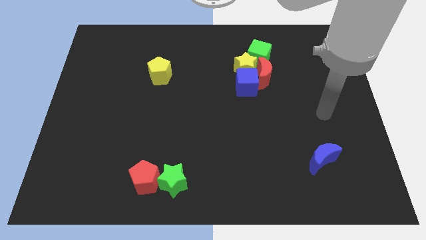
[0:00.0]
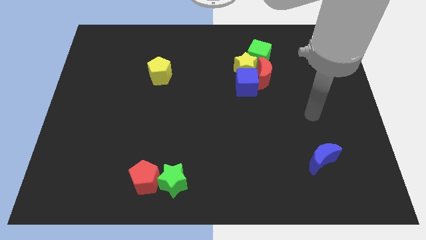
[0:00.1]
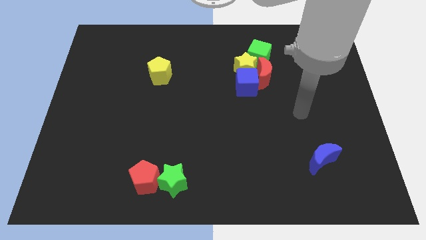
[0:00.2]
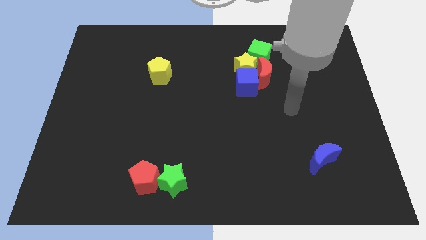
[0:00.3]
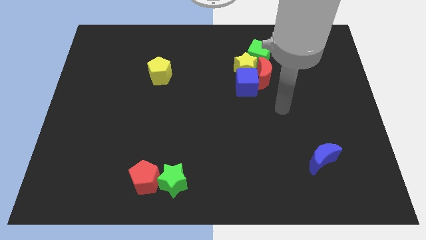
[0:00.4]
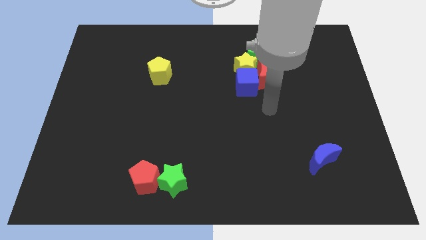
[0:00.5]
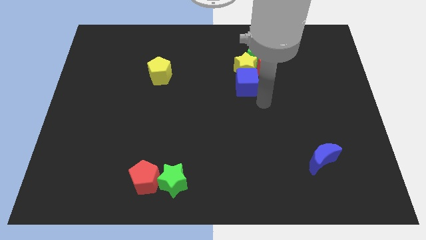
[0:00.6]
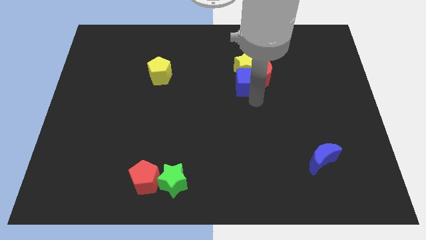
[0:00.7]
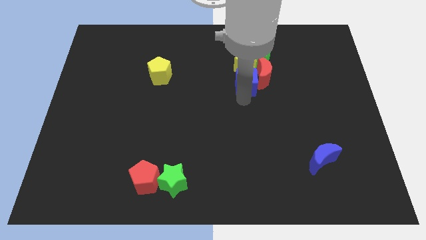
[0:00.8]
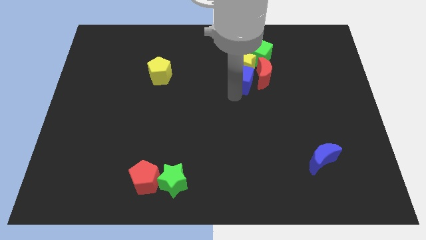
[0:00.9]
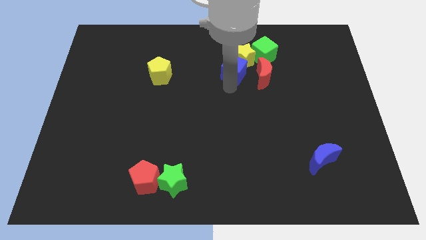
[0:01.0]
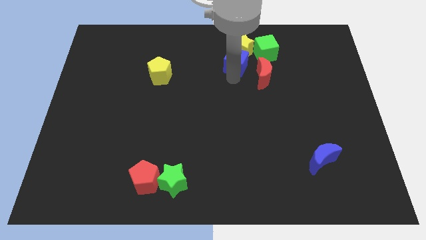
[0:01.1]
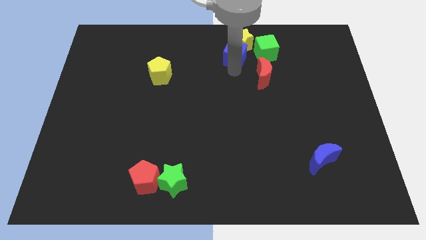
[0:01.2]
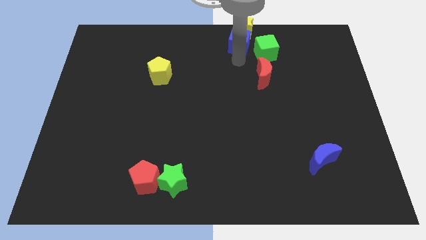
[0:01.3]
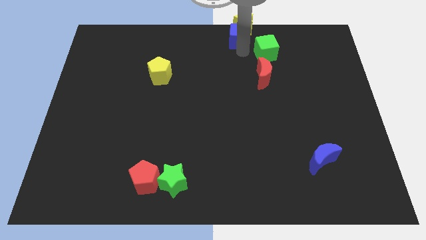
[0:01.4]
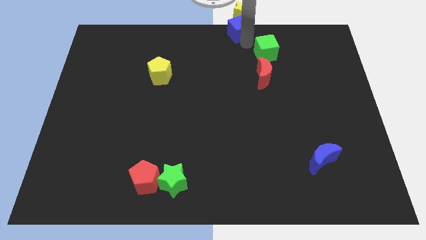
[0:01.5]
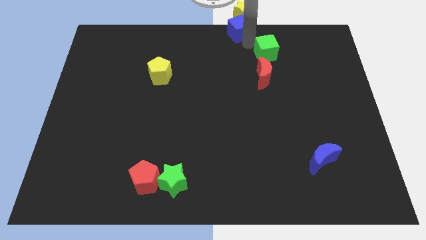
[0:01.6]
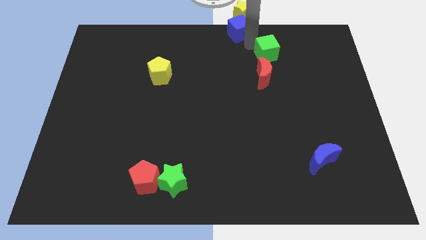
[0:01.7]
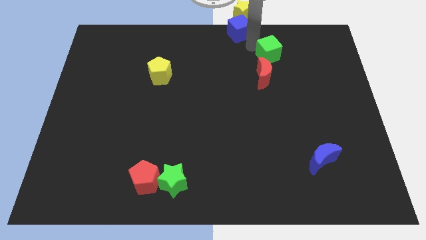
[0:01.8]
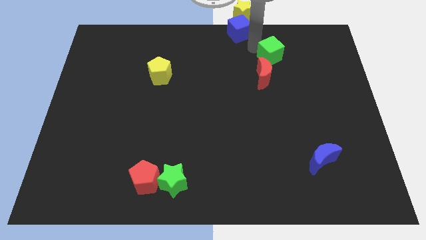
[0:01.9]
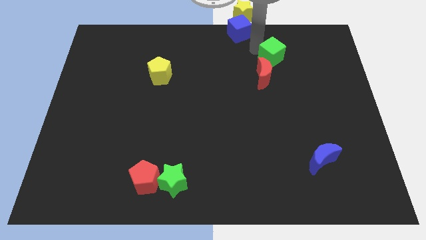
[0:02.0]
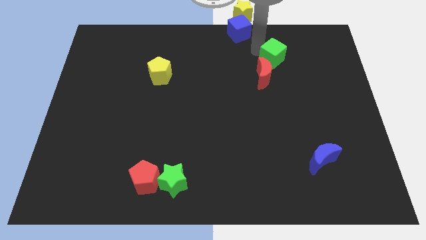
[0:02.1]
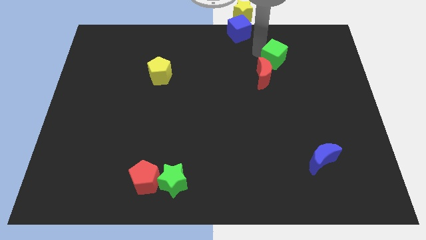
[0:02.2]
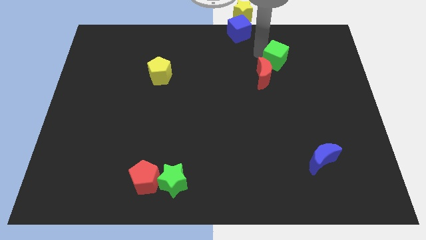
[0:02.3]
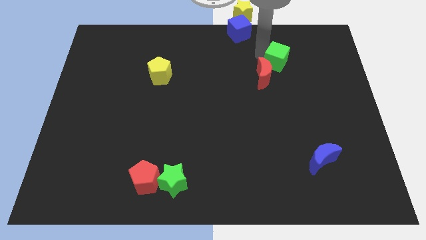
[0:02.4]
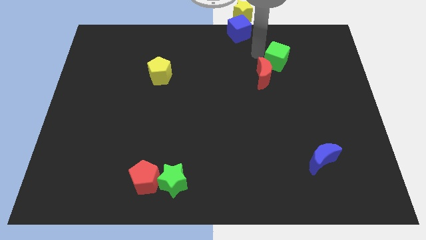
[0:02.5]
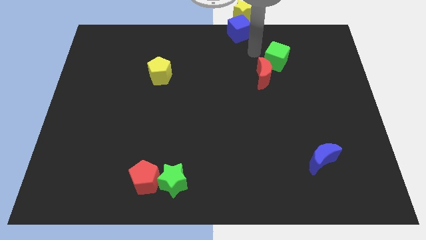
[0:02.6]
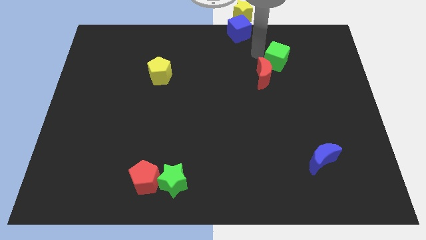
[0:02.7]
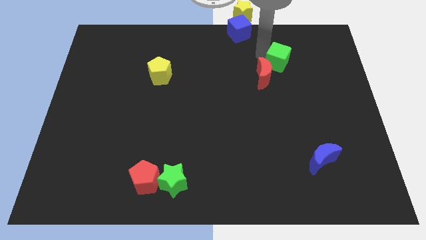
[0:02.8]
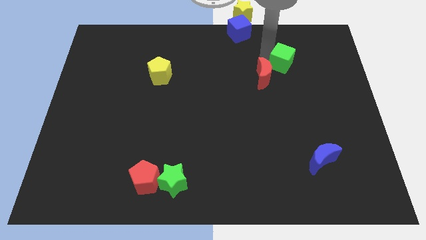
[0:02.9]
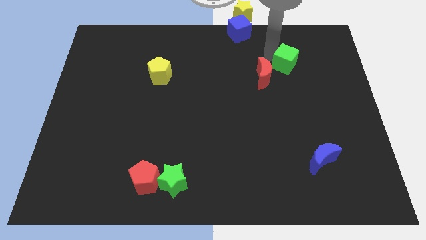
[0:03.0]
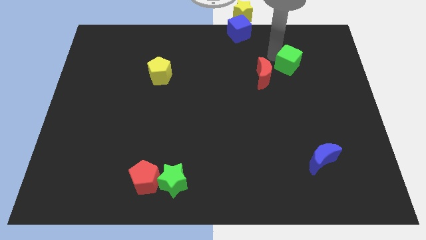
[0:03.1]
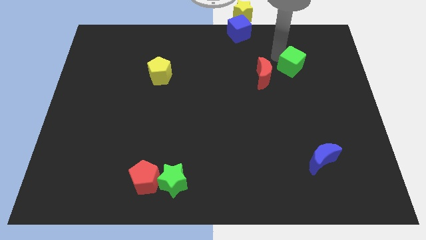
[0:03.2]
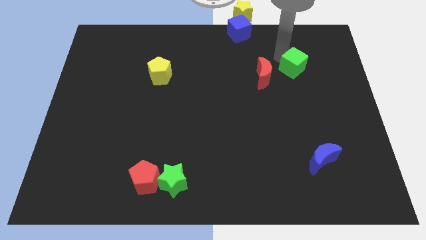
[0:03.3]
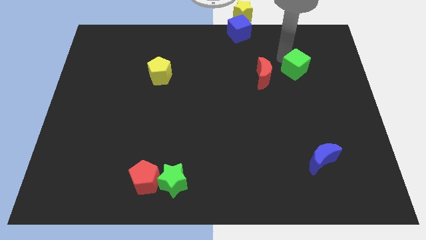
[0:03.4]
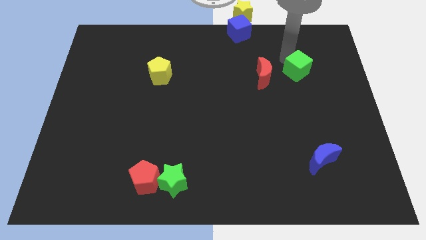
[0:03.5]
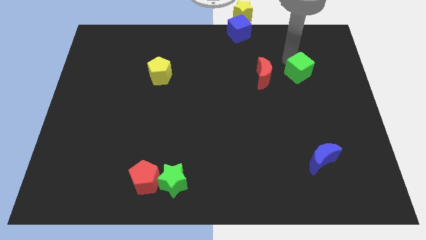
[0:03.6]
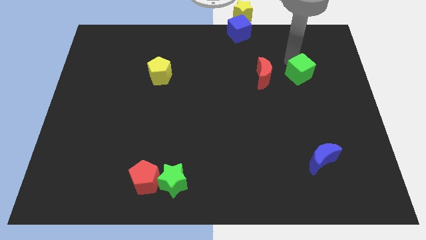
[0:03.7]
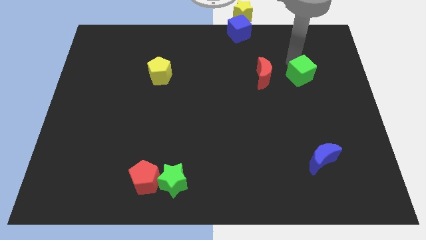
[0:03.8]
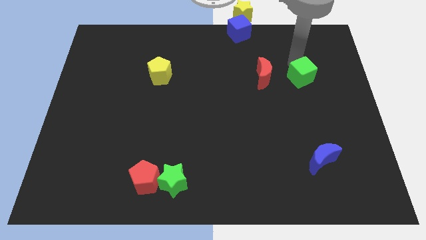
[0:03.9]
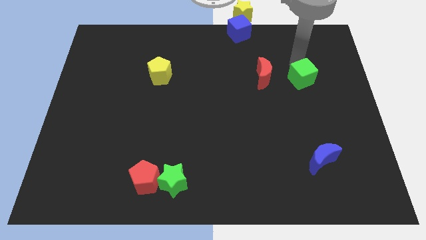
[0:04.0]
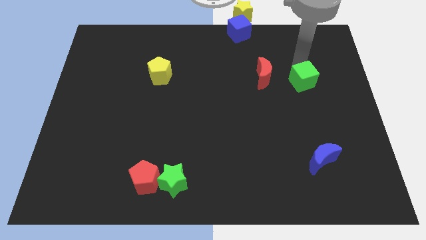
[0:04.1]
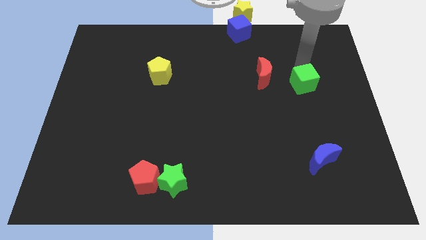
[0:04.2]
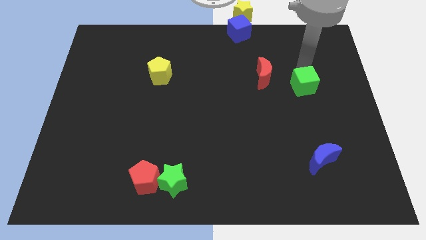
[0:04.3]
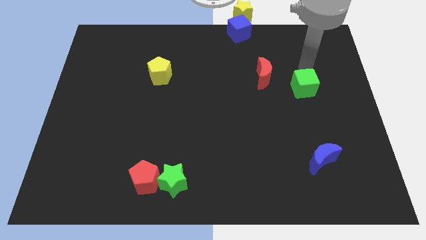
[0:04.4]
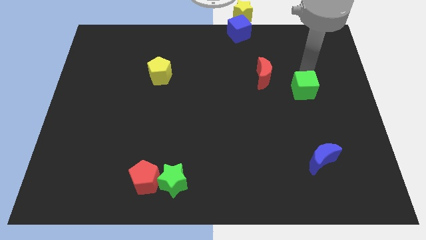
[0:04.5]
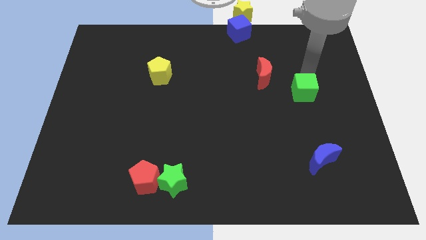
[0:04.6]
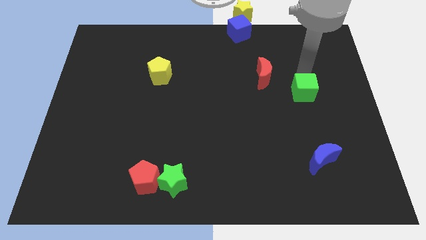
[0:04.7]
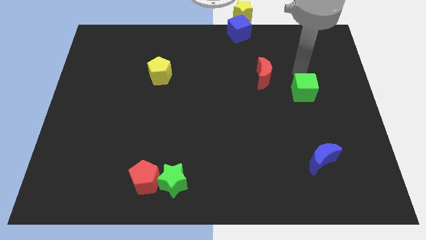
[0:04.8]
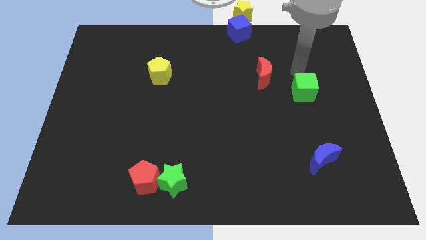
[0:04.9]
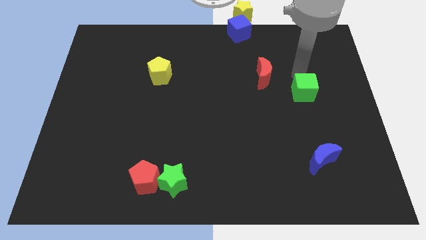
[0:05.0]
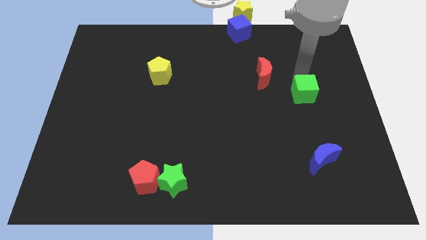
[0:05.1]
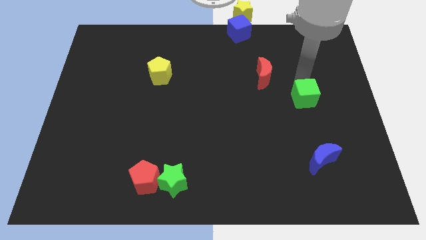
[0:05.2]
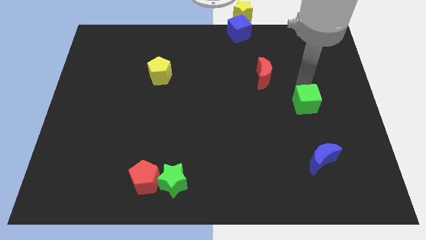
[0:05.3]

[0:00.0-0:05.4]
slide the green cube above the blue moon
